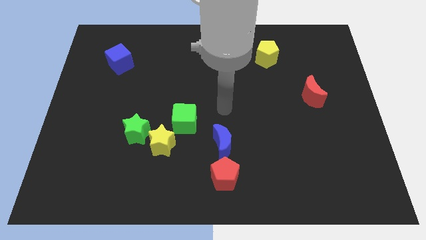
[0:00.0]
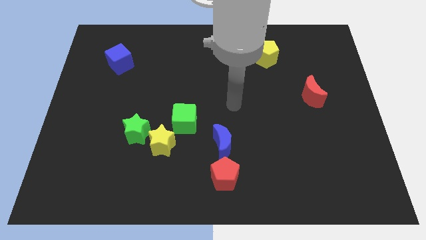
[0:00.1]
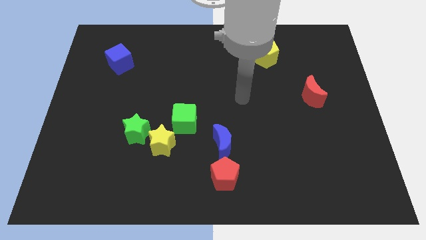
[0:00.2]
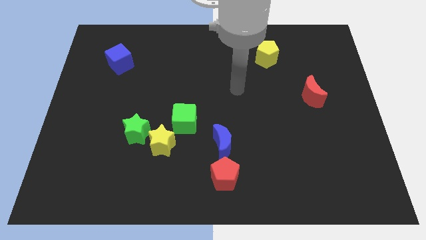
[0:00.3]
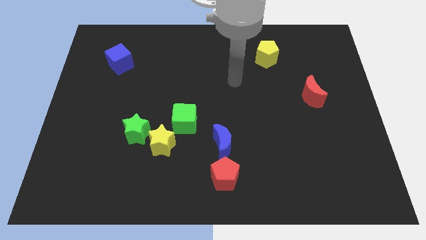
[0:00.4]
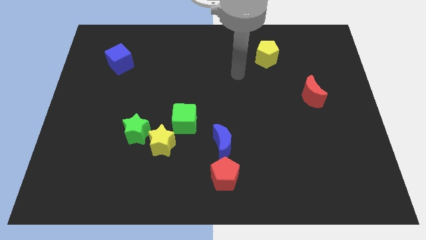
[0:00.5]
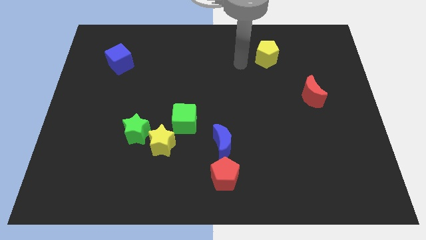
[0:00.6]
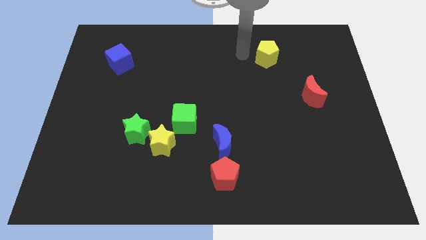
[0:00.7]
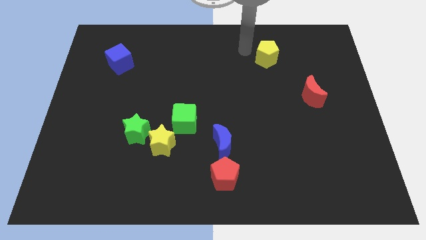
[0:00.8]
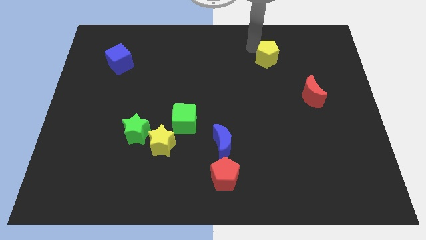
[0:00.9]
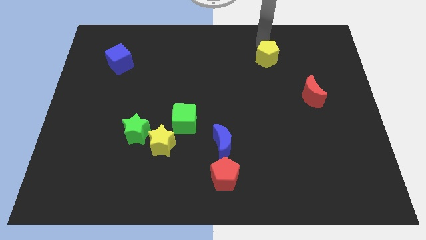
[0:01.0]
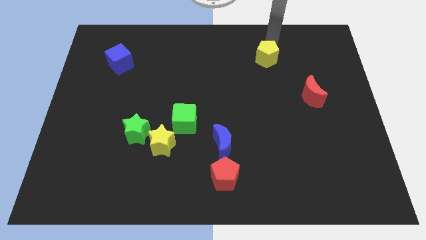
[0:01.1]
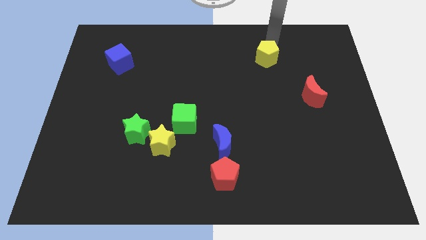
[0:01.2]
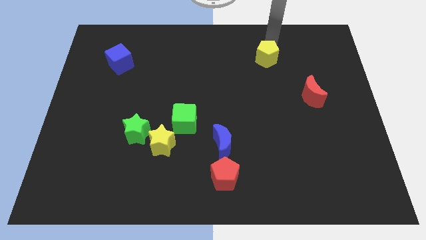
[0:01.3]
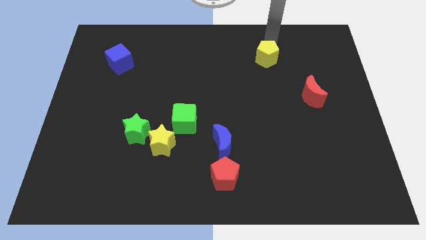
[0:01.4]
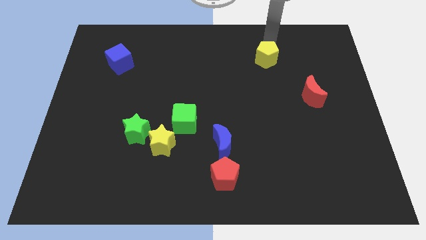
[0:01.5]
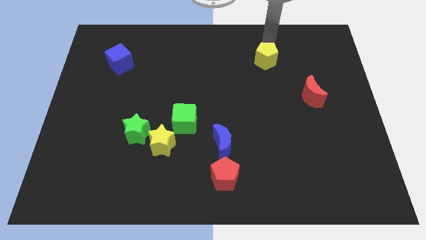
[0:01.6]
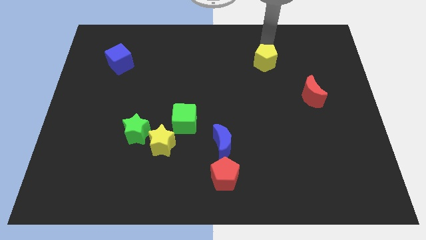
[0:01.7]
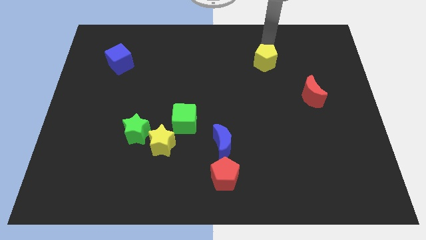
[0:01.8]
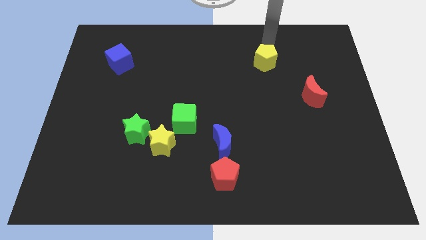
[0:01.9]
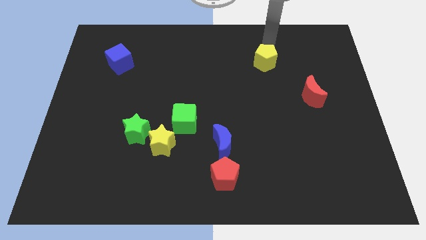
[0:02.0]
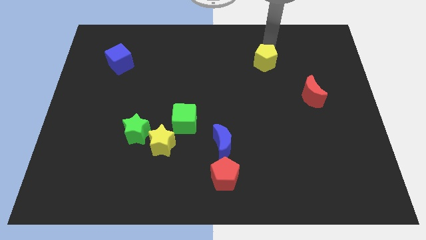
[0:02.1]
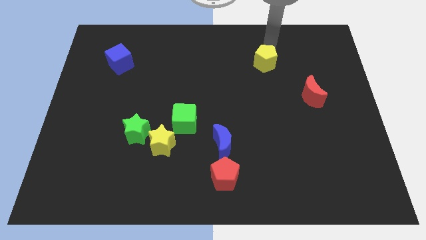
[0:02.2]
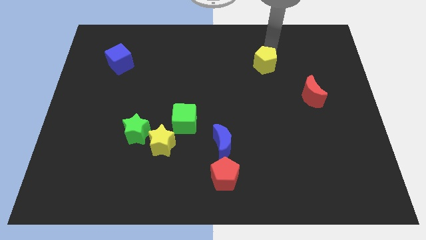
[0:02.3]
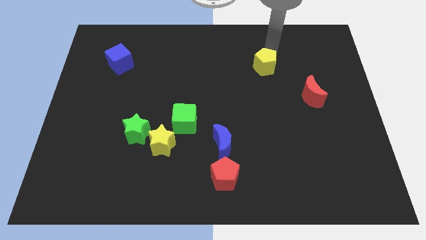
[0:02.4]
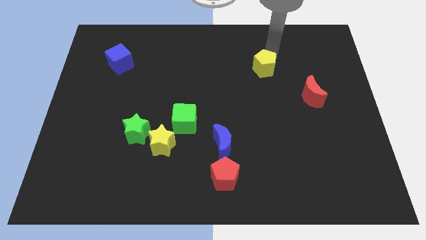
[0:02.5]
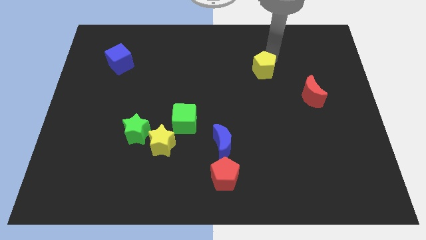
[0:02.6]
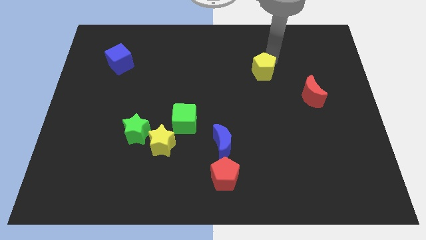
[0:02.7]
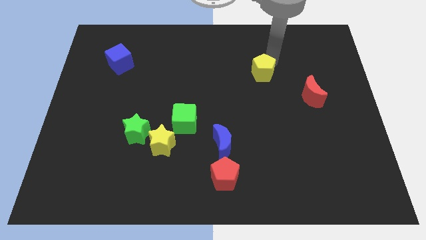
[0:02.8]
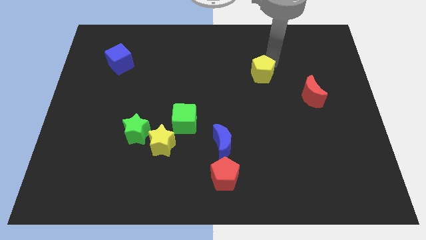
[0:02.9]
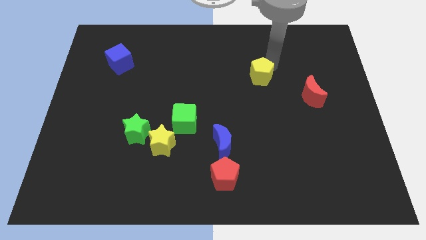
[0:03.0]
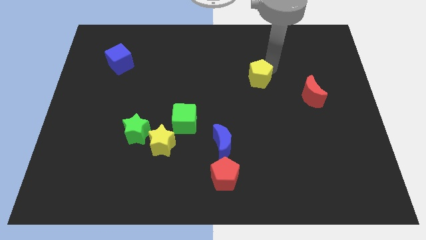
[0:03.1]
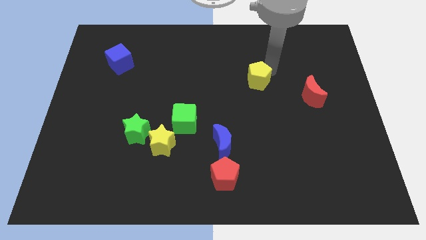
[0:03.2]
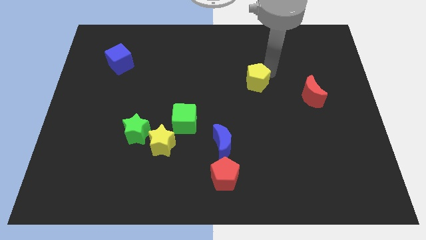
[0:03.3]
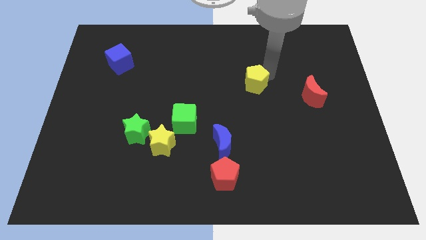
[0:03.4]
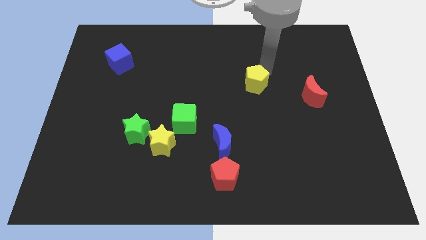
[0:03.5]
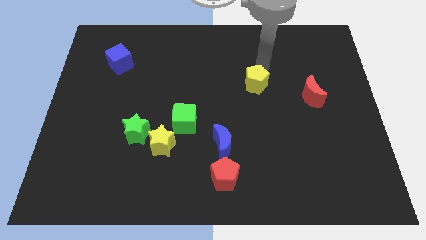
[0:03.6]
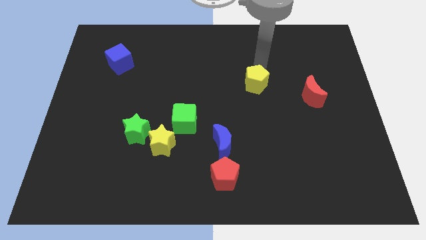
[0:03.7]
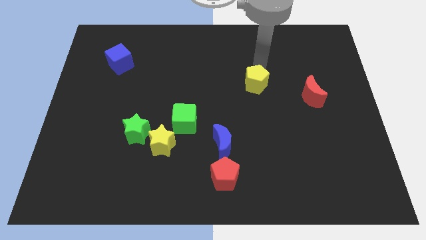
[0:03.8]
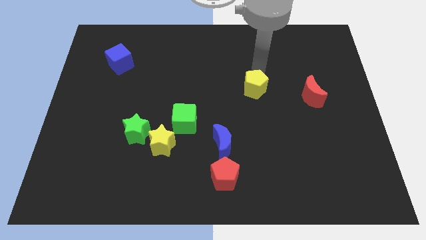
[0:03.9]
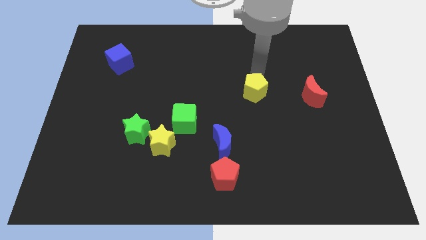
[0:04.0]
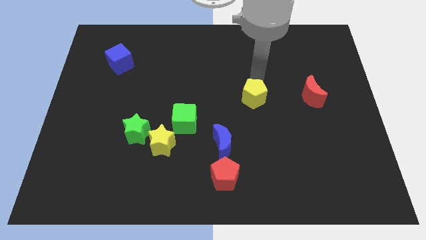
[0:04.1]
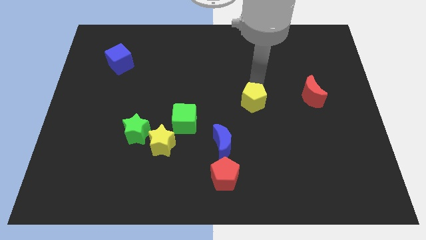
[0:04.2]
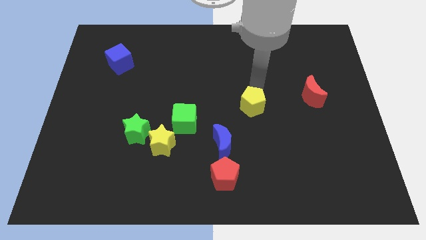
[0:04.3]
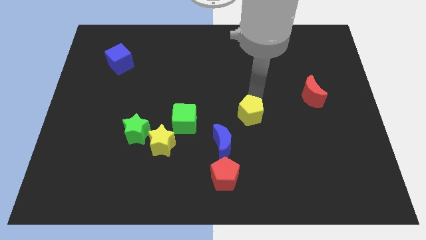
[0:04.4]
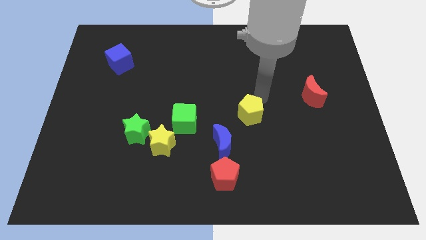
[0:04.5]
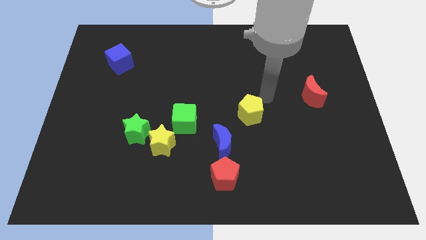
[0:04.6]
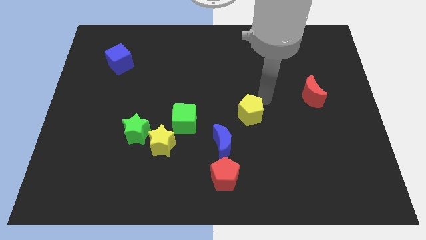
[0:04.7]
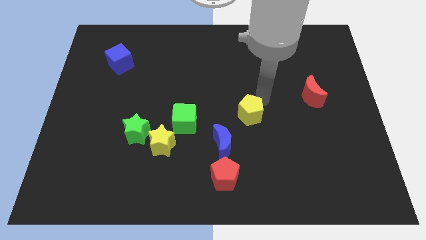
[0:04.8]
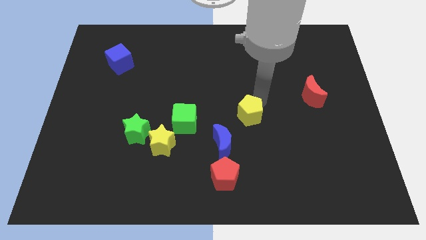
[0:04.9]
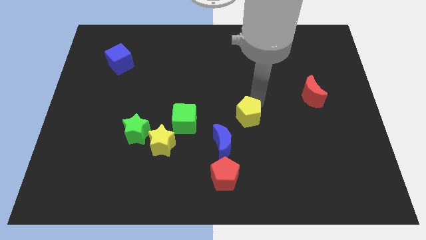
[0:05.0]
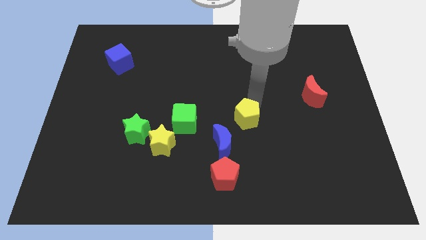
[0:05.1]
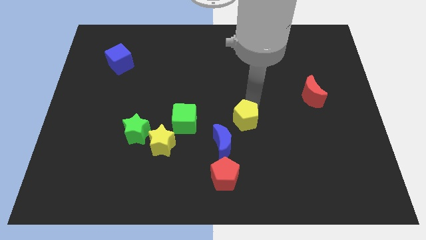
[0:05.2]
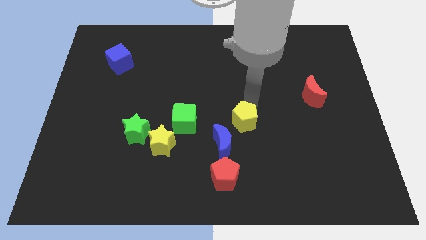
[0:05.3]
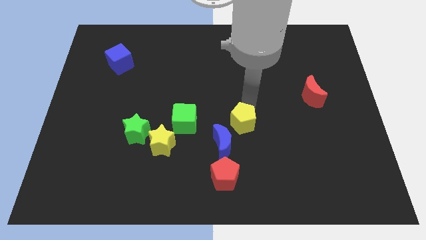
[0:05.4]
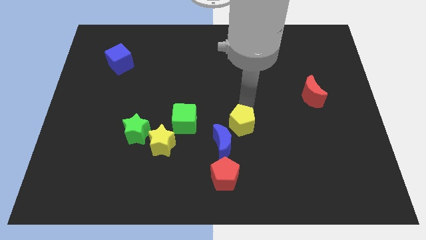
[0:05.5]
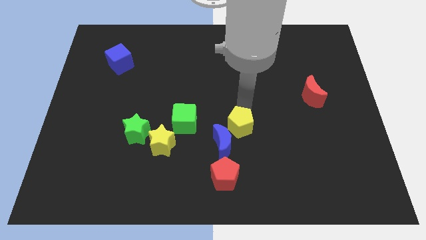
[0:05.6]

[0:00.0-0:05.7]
put the yellow pentagon to the blue moon

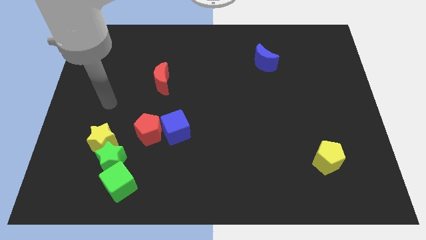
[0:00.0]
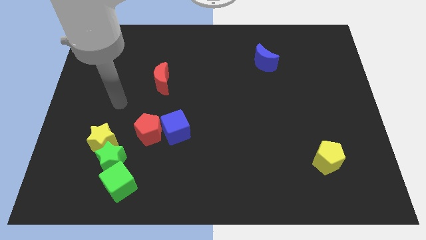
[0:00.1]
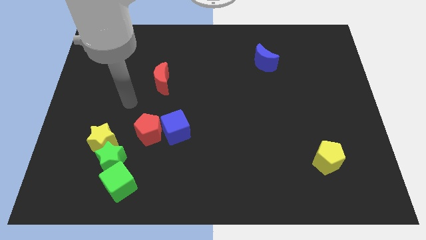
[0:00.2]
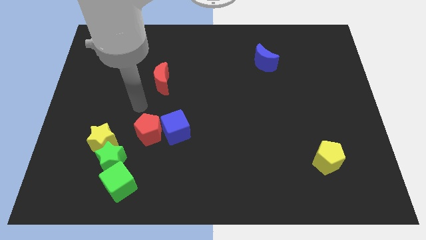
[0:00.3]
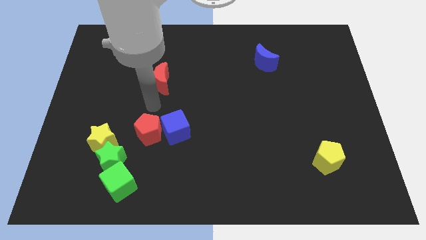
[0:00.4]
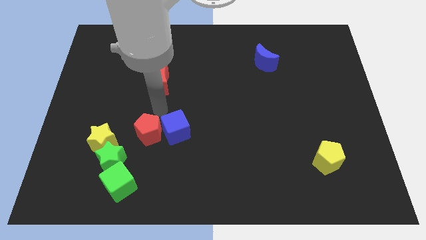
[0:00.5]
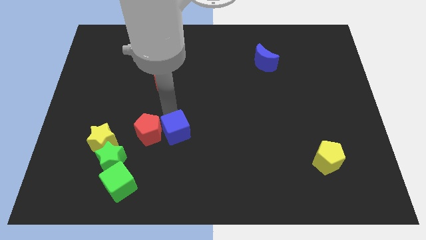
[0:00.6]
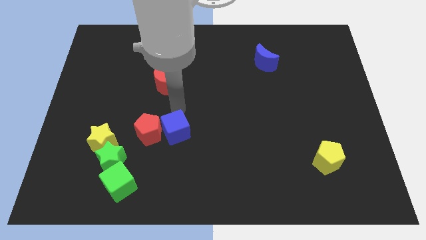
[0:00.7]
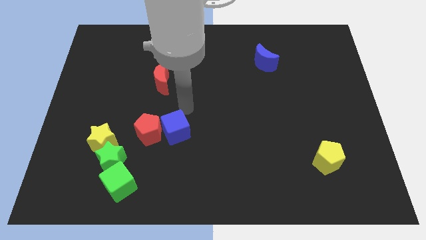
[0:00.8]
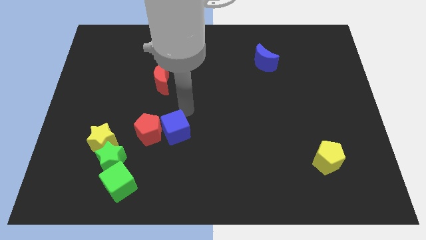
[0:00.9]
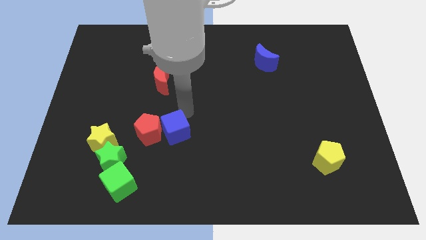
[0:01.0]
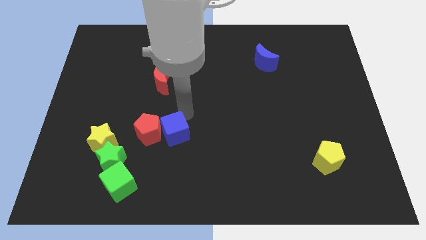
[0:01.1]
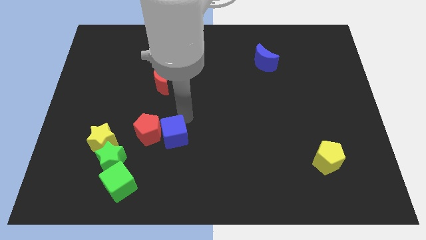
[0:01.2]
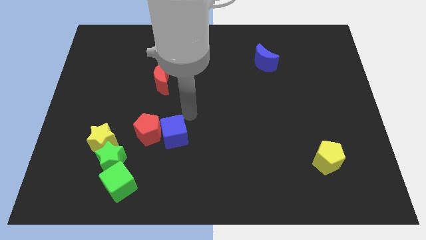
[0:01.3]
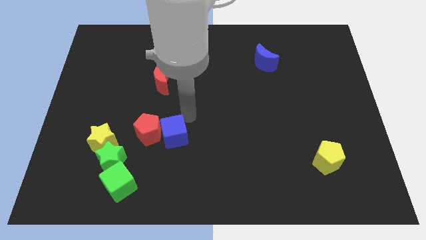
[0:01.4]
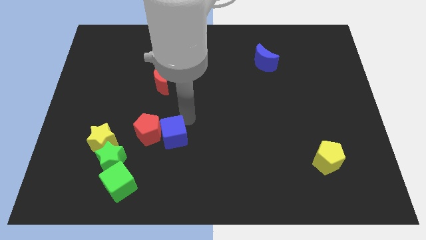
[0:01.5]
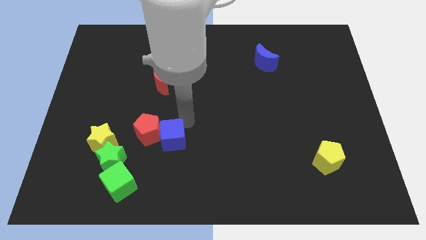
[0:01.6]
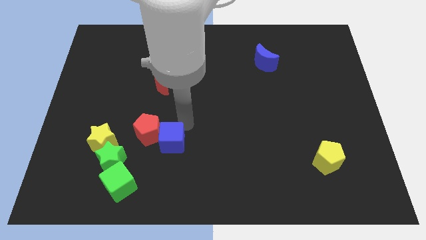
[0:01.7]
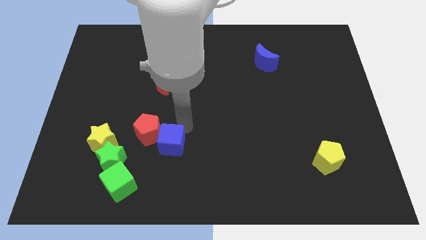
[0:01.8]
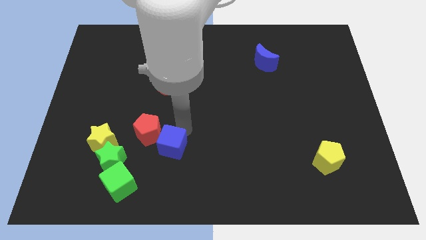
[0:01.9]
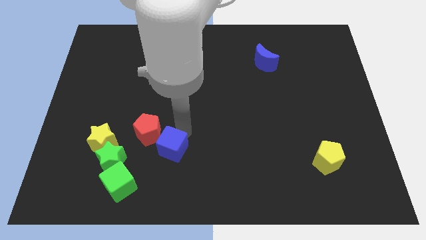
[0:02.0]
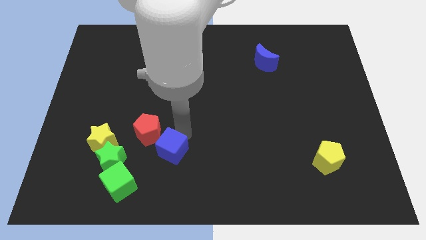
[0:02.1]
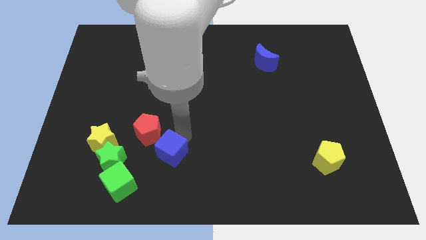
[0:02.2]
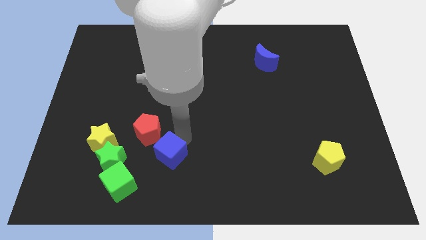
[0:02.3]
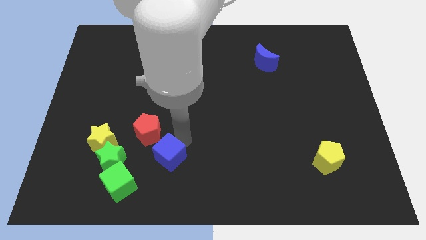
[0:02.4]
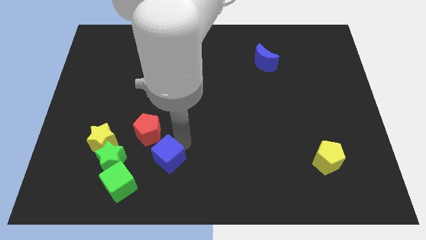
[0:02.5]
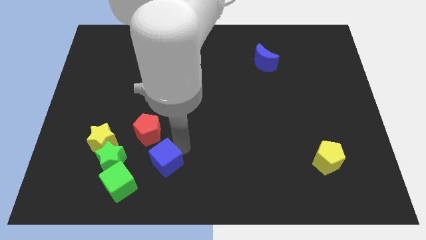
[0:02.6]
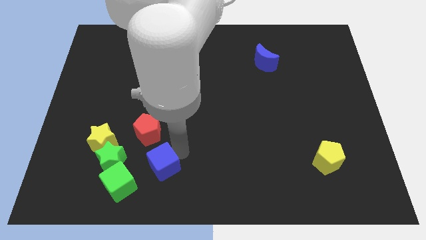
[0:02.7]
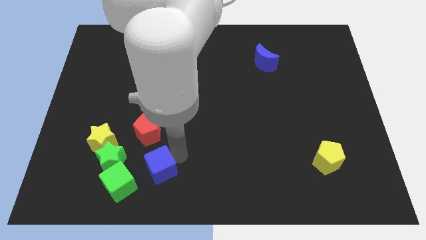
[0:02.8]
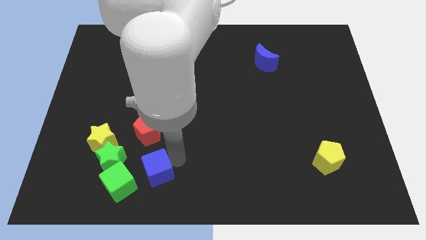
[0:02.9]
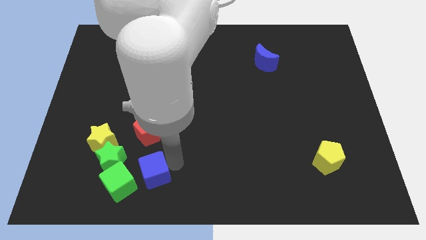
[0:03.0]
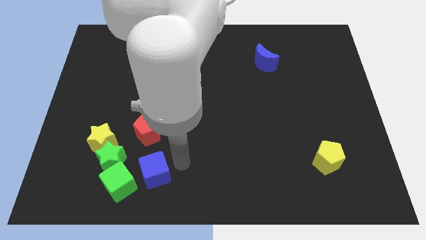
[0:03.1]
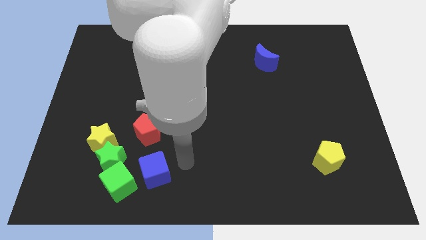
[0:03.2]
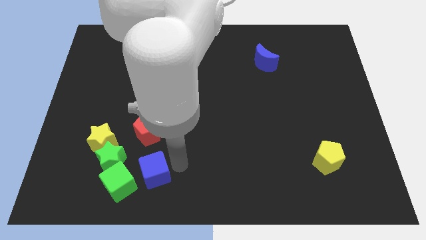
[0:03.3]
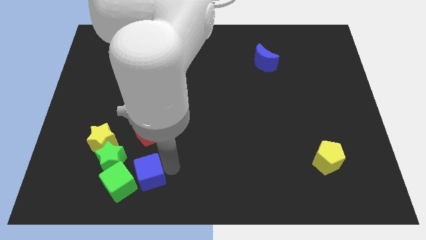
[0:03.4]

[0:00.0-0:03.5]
move the blue cube next to the green cube
